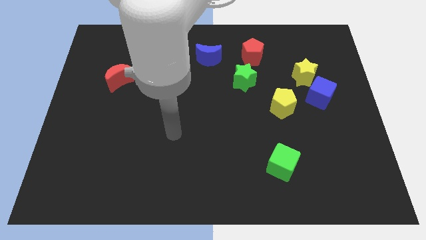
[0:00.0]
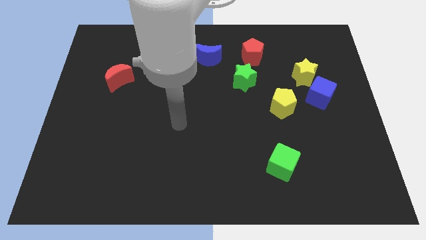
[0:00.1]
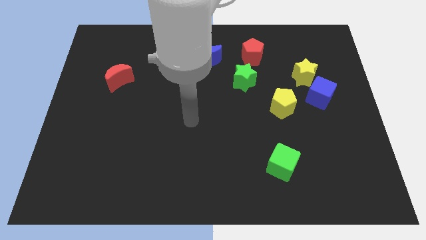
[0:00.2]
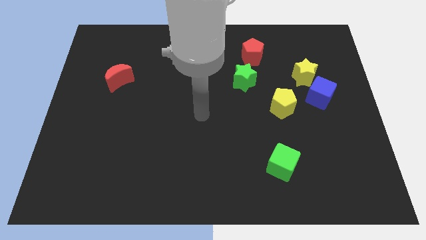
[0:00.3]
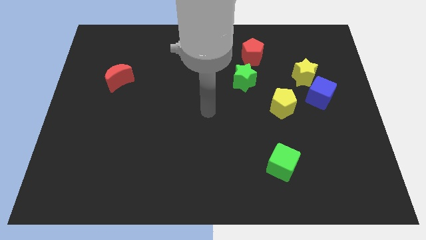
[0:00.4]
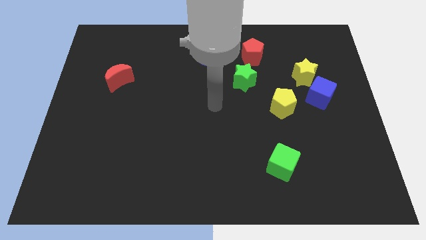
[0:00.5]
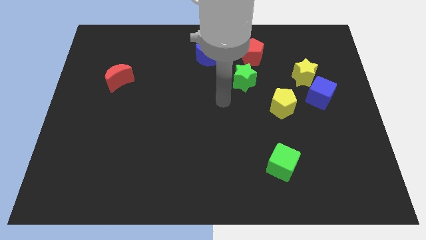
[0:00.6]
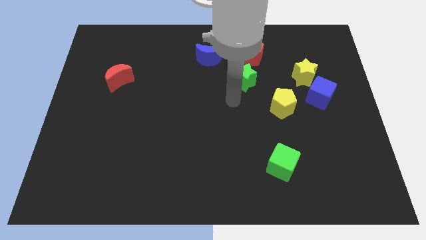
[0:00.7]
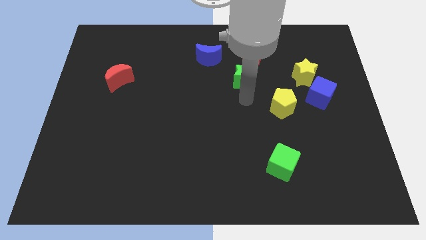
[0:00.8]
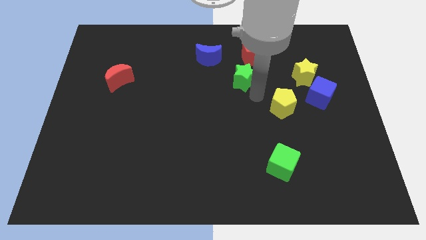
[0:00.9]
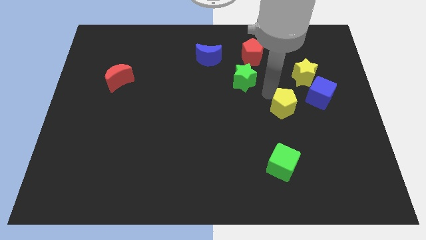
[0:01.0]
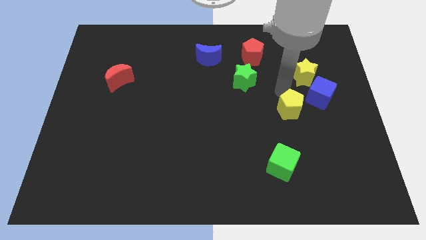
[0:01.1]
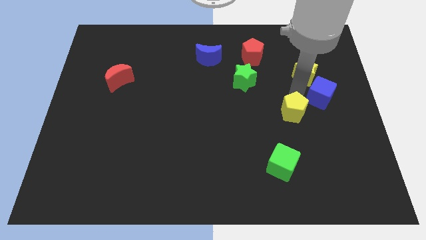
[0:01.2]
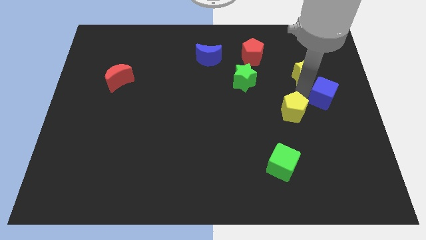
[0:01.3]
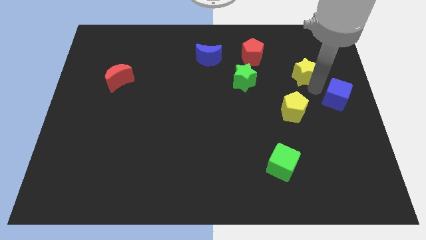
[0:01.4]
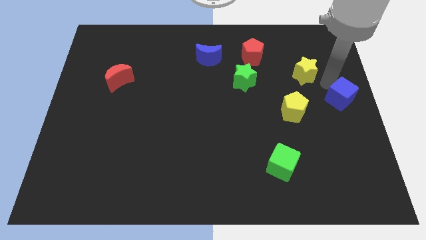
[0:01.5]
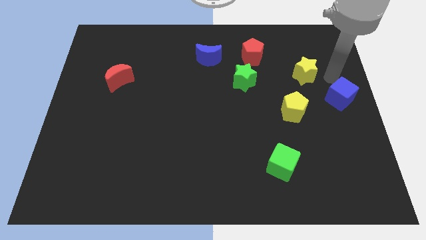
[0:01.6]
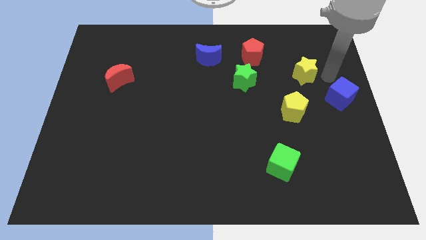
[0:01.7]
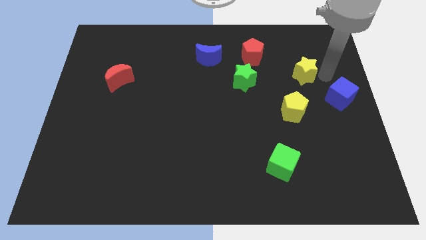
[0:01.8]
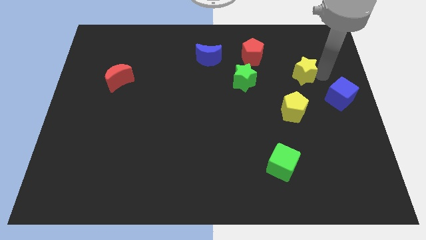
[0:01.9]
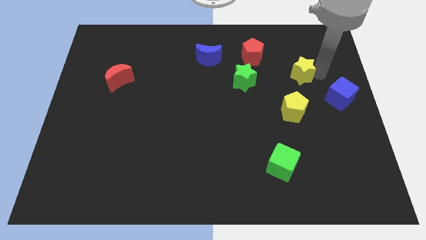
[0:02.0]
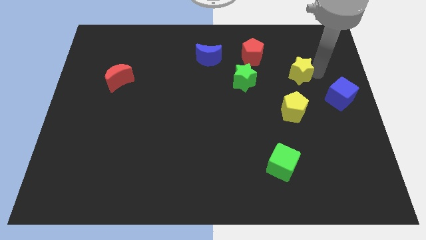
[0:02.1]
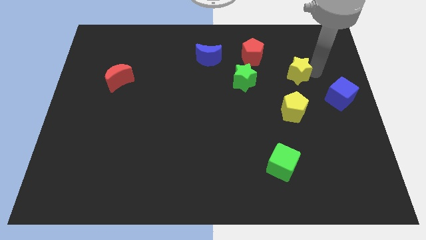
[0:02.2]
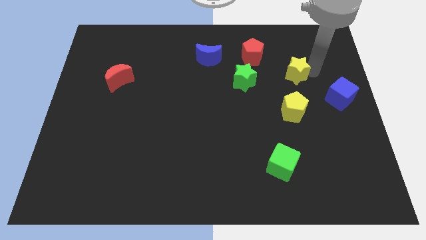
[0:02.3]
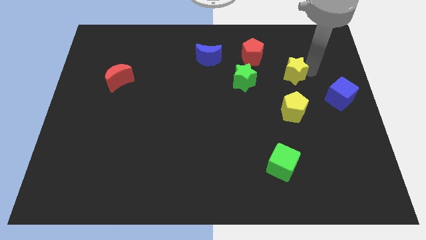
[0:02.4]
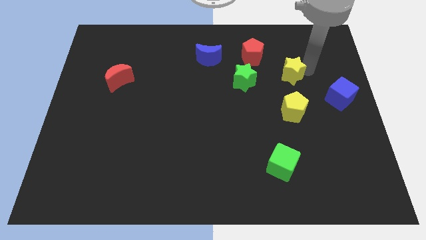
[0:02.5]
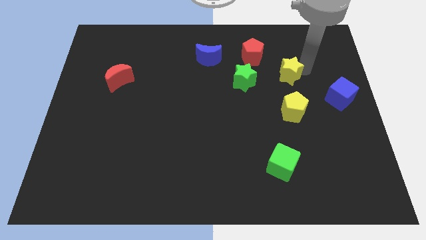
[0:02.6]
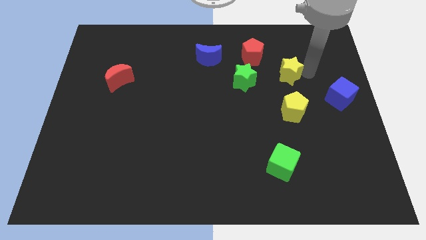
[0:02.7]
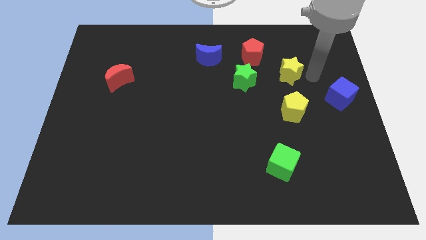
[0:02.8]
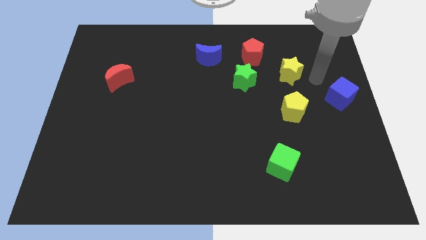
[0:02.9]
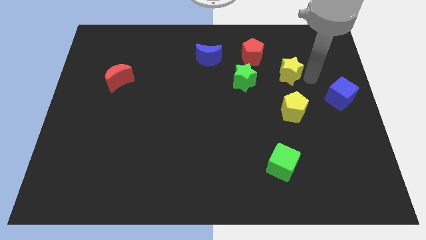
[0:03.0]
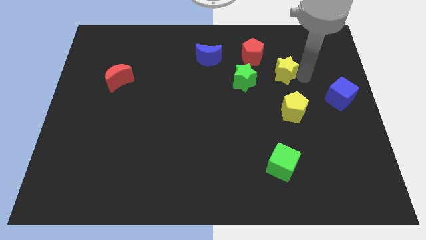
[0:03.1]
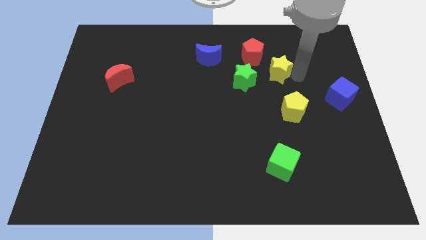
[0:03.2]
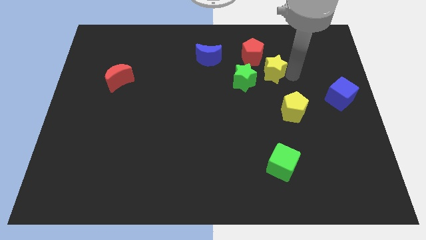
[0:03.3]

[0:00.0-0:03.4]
slightly slide the yellow star left

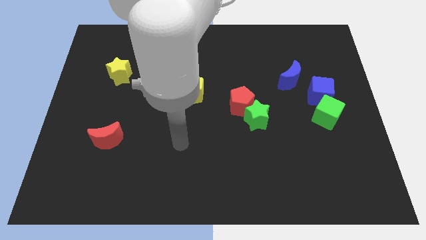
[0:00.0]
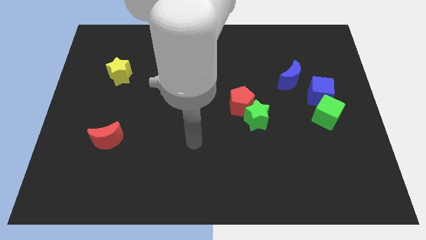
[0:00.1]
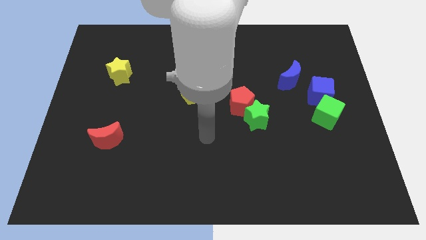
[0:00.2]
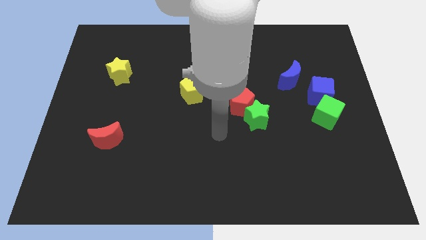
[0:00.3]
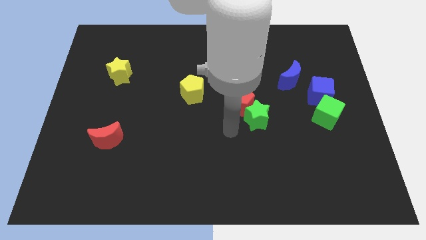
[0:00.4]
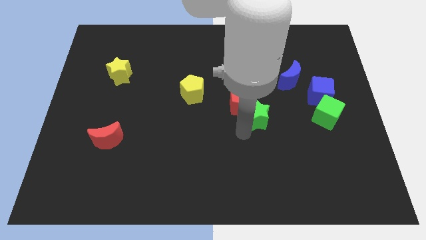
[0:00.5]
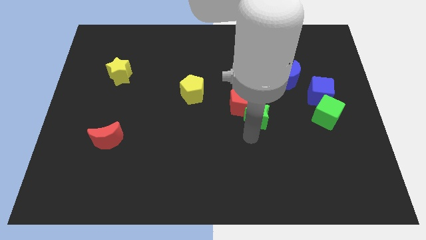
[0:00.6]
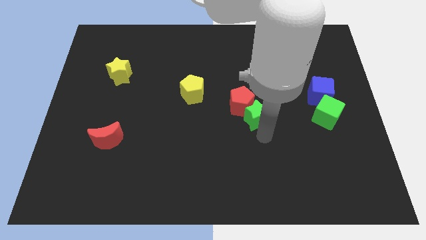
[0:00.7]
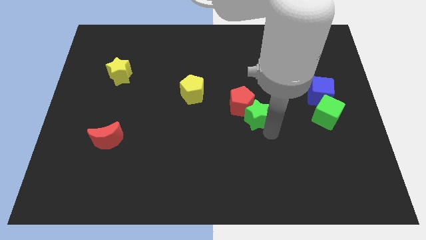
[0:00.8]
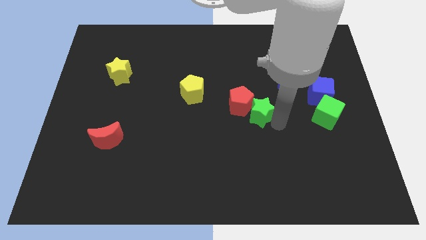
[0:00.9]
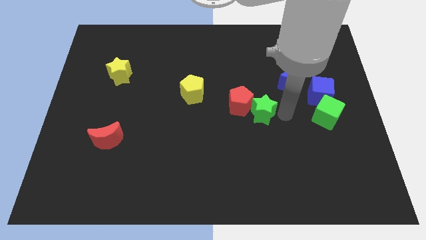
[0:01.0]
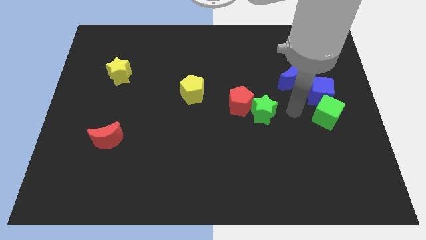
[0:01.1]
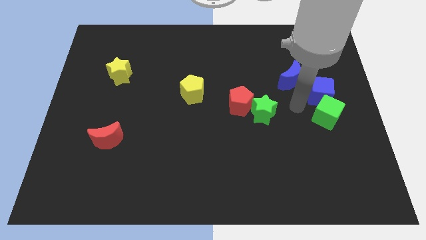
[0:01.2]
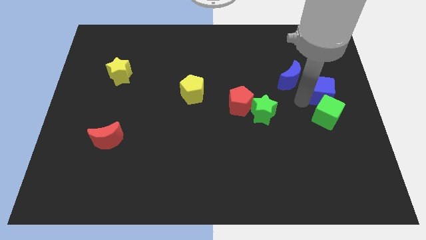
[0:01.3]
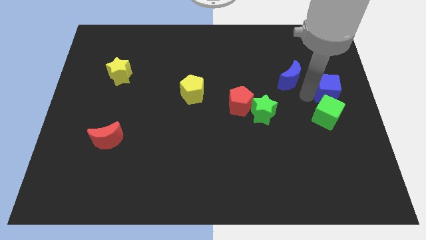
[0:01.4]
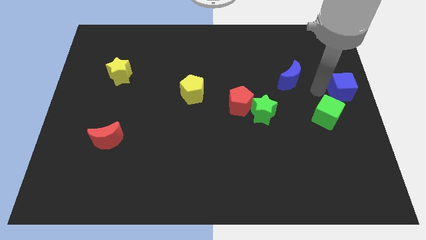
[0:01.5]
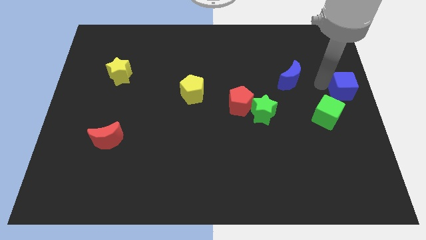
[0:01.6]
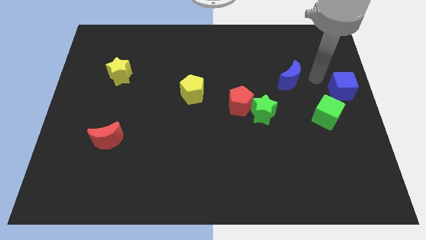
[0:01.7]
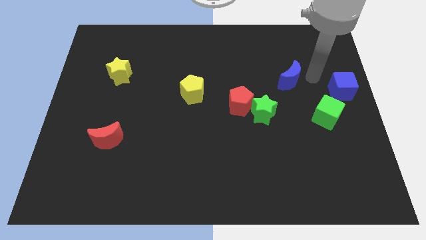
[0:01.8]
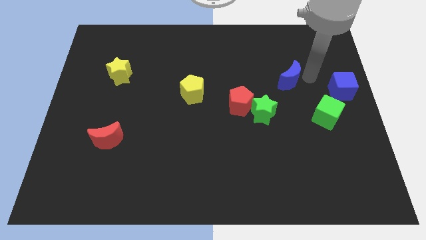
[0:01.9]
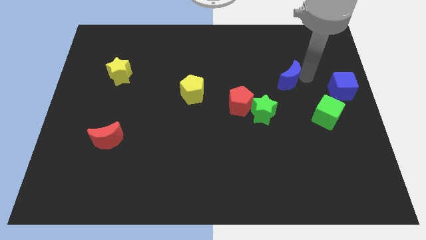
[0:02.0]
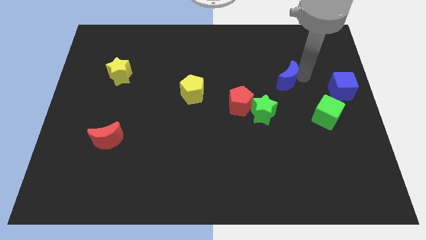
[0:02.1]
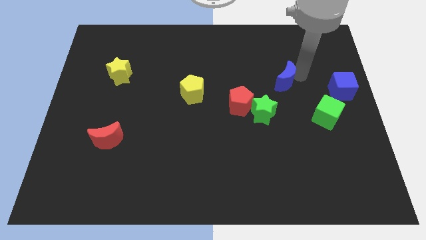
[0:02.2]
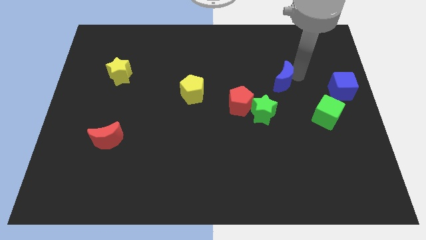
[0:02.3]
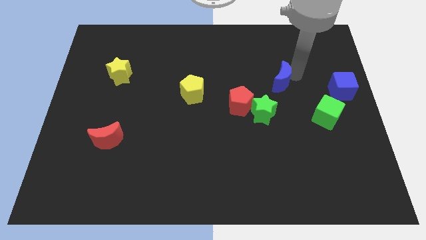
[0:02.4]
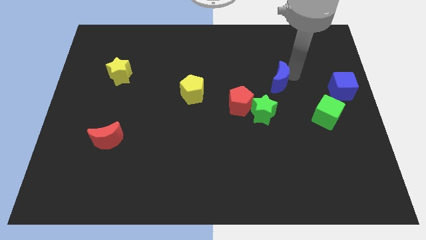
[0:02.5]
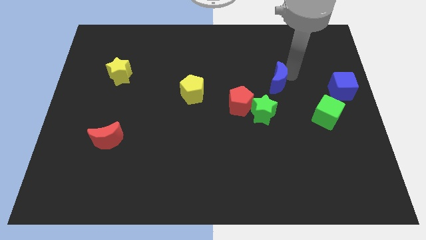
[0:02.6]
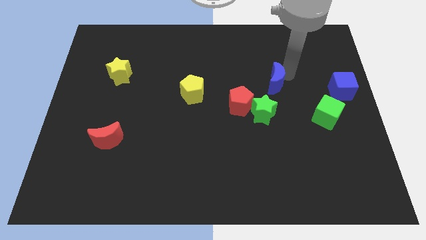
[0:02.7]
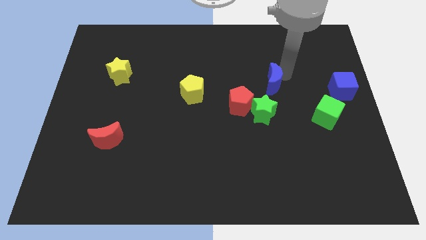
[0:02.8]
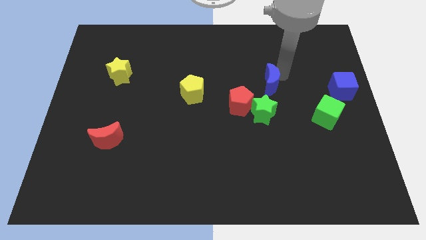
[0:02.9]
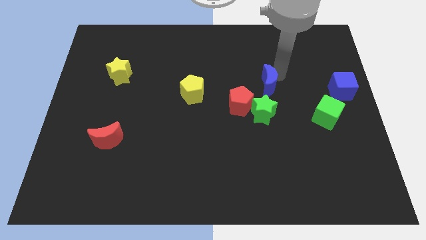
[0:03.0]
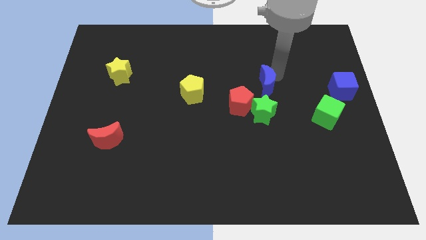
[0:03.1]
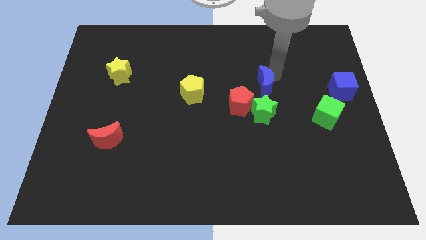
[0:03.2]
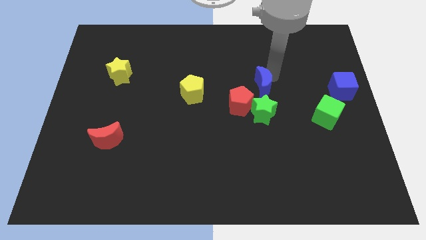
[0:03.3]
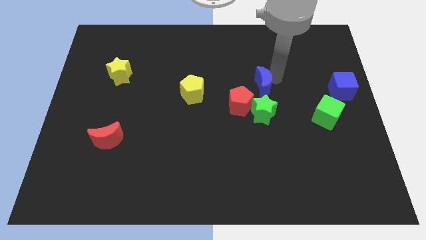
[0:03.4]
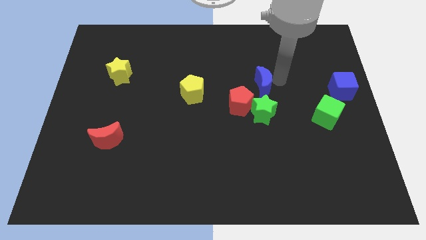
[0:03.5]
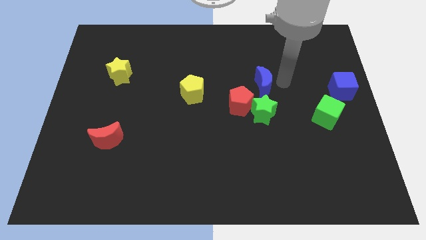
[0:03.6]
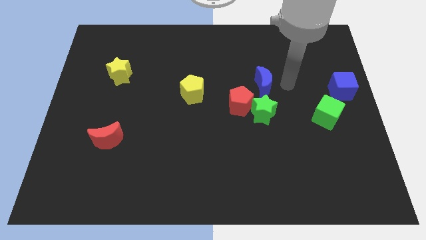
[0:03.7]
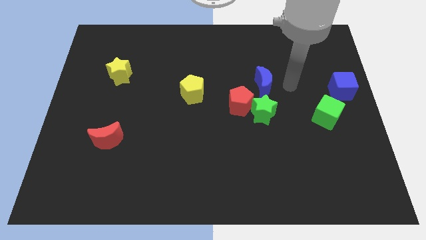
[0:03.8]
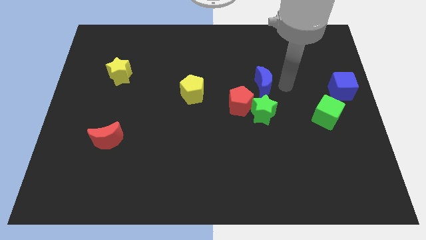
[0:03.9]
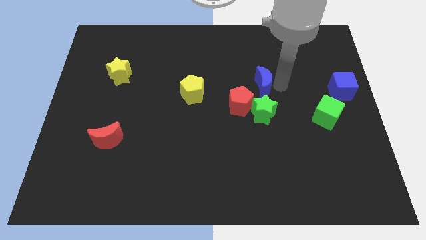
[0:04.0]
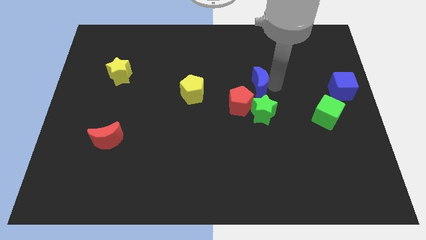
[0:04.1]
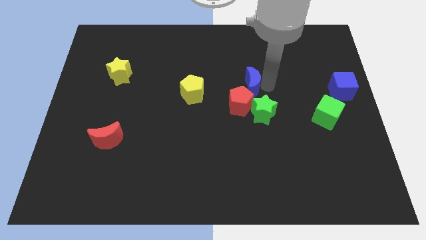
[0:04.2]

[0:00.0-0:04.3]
slide the blue moon downwards and to the left a bit

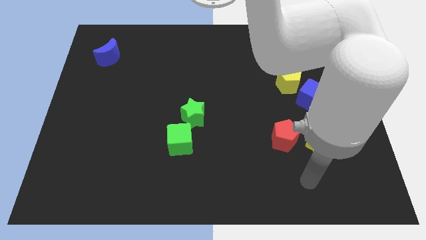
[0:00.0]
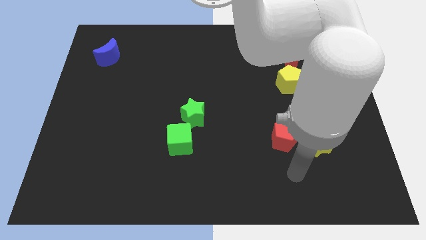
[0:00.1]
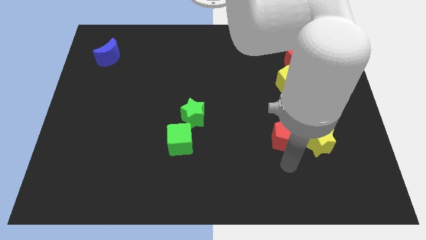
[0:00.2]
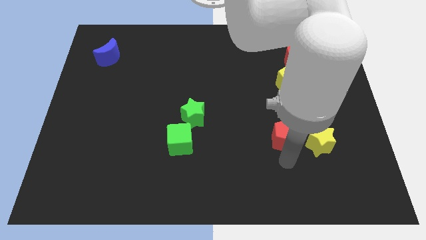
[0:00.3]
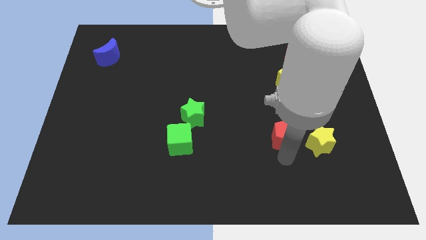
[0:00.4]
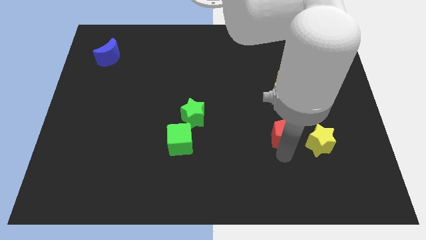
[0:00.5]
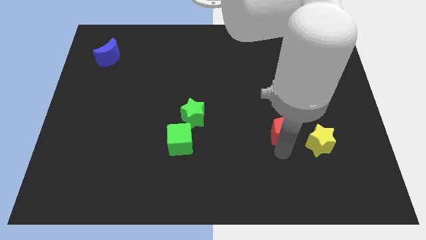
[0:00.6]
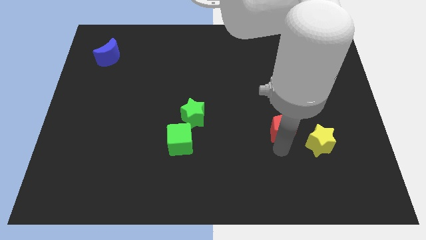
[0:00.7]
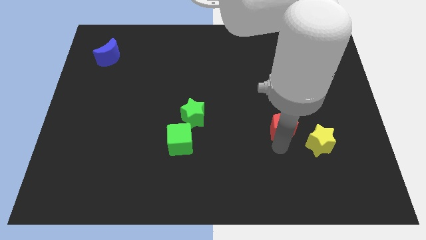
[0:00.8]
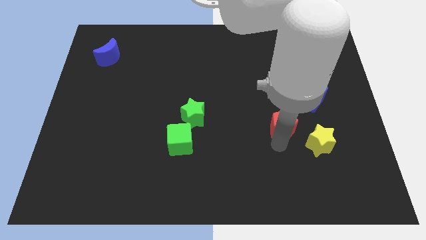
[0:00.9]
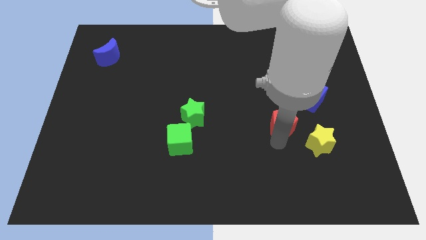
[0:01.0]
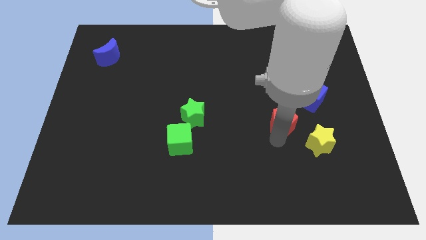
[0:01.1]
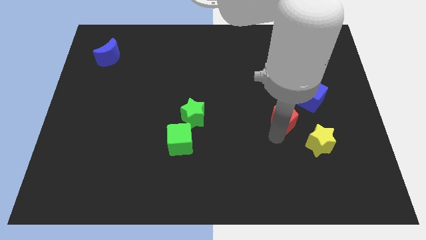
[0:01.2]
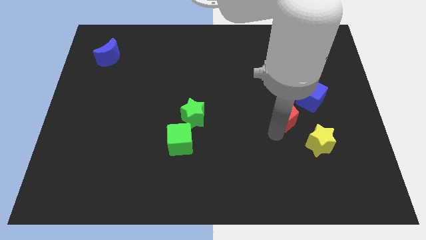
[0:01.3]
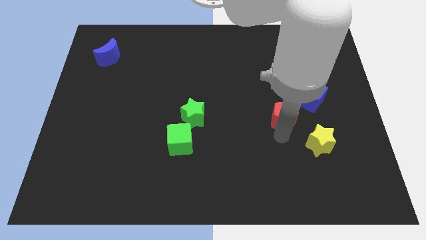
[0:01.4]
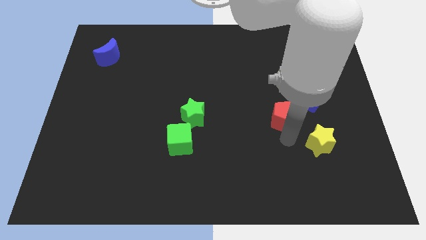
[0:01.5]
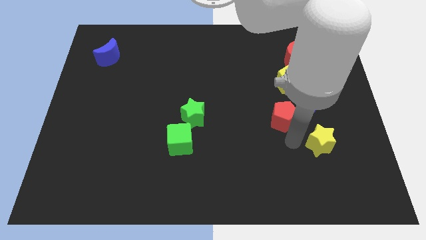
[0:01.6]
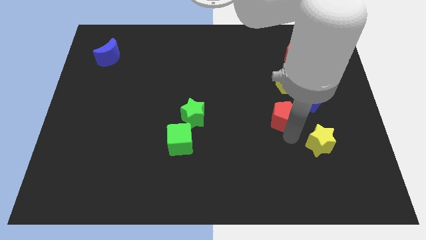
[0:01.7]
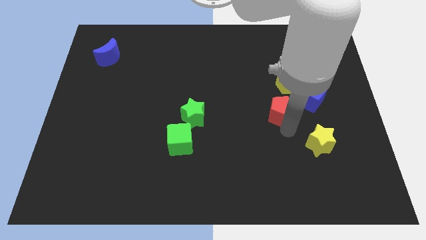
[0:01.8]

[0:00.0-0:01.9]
slide the red pentagon up a bit
